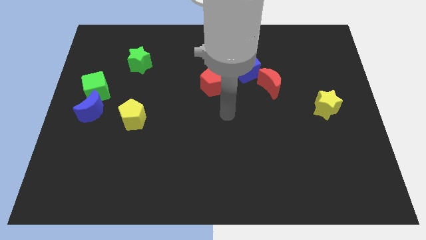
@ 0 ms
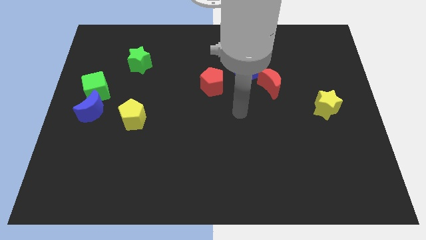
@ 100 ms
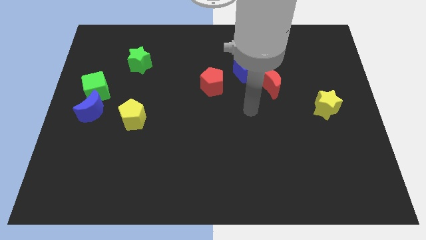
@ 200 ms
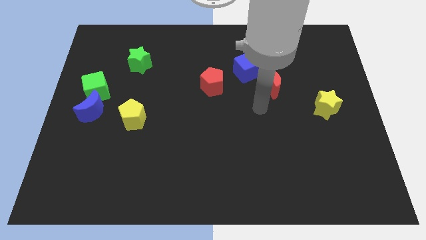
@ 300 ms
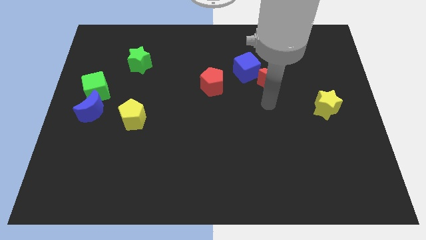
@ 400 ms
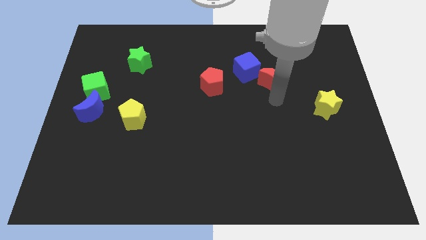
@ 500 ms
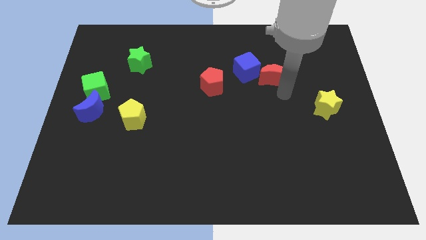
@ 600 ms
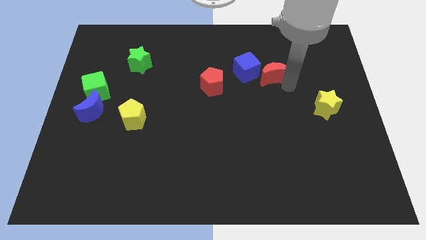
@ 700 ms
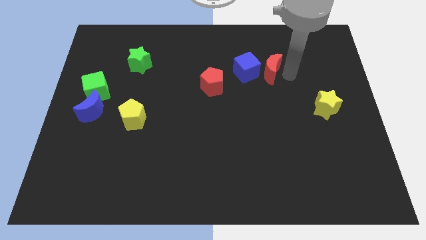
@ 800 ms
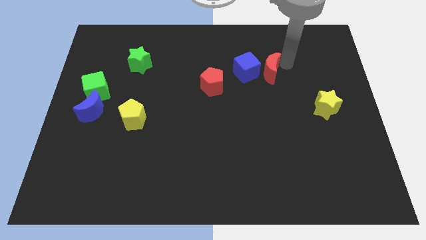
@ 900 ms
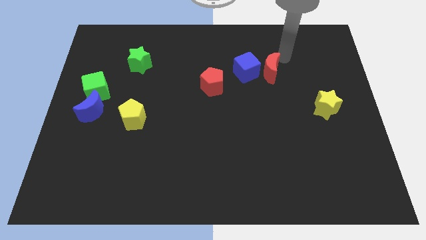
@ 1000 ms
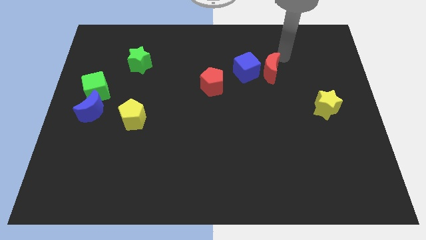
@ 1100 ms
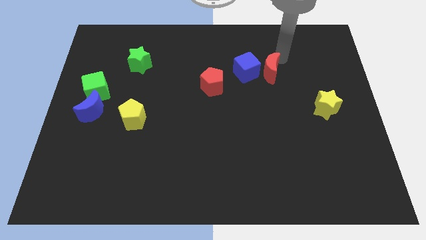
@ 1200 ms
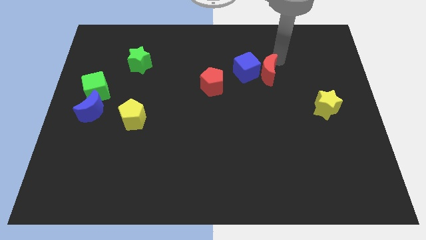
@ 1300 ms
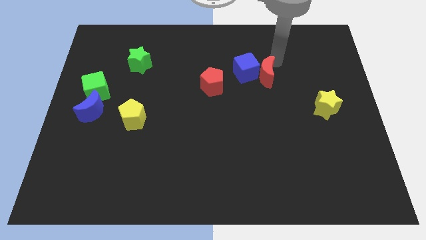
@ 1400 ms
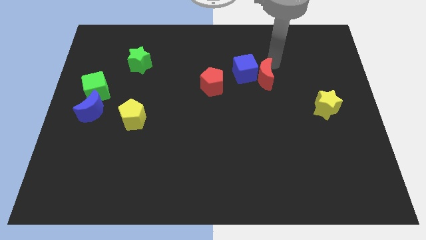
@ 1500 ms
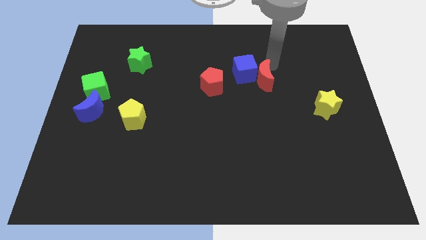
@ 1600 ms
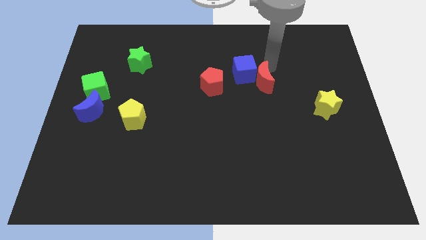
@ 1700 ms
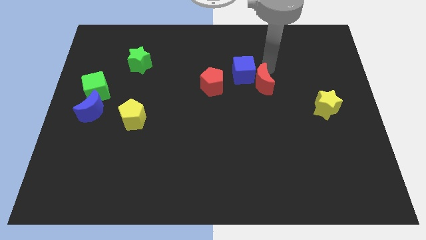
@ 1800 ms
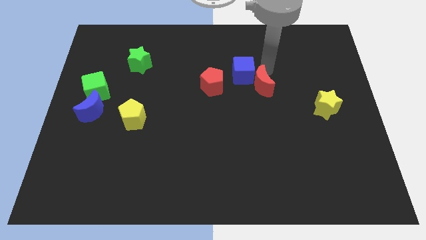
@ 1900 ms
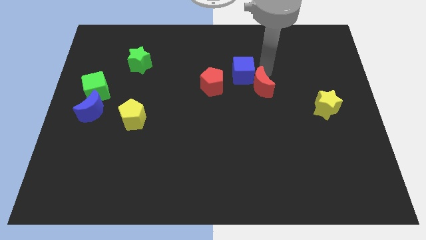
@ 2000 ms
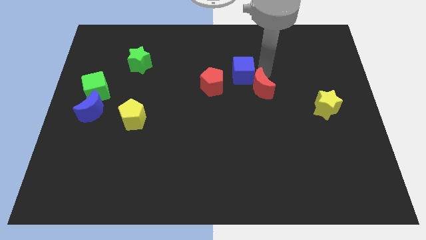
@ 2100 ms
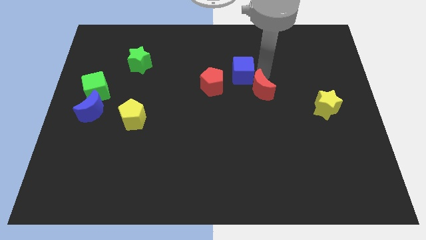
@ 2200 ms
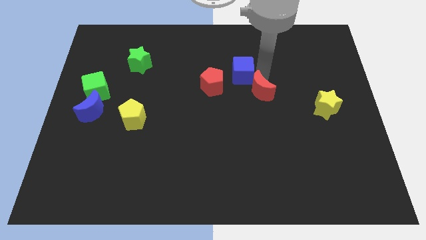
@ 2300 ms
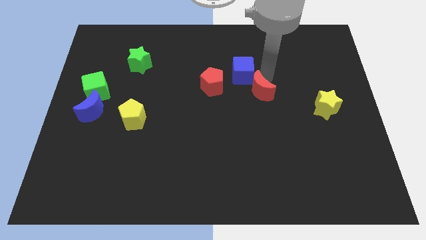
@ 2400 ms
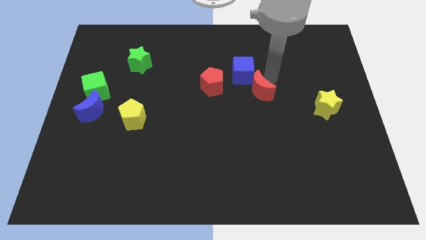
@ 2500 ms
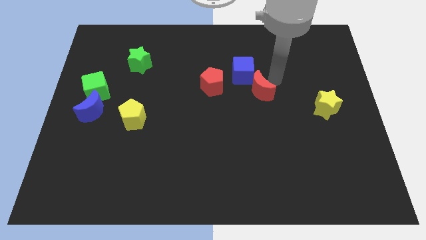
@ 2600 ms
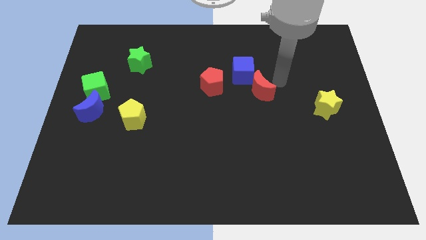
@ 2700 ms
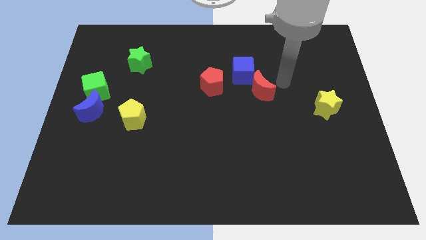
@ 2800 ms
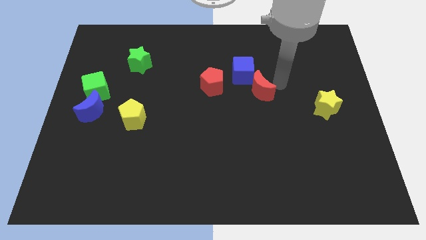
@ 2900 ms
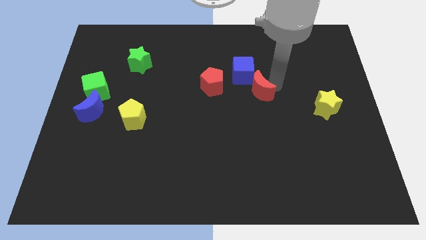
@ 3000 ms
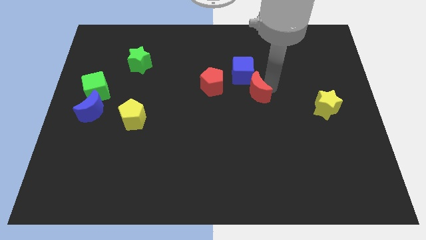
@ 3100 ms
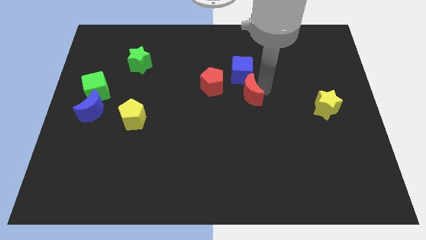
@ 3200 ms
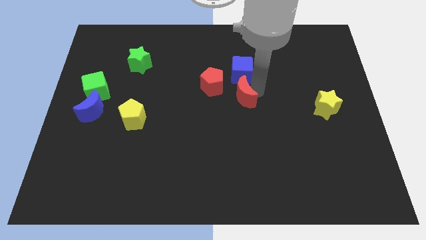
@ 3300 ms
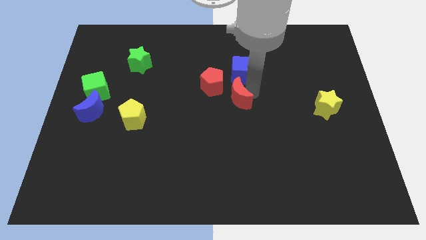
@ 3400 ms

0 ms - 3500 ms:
push the red moon a little bit to the left

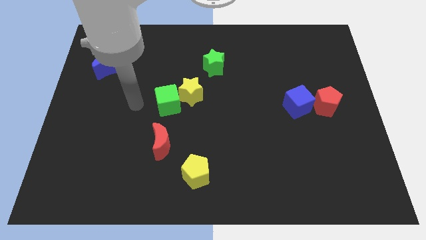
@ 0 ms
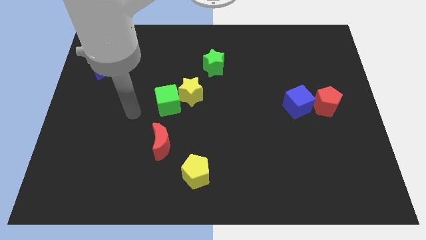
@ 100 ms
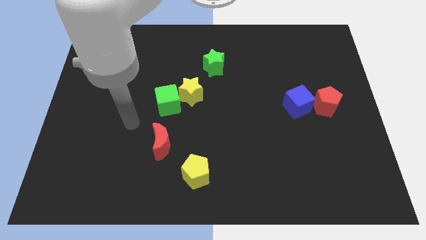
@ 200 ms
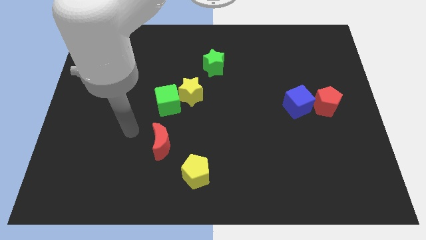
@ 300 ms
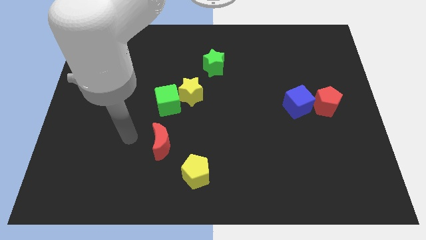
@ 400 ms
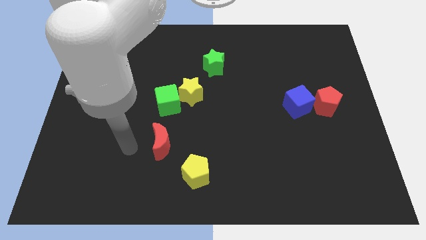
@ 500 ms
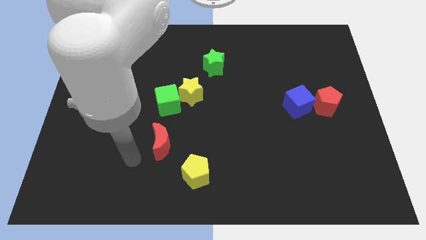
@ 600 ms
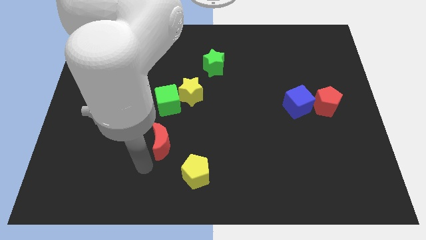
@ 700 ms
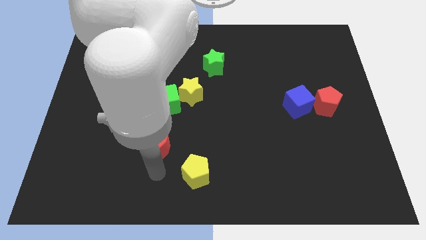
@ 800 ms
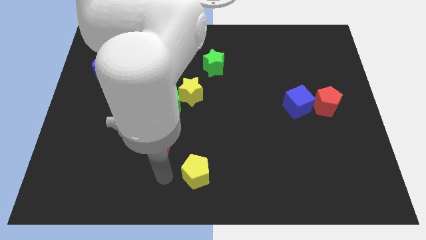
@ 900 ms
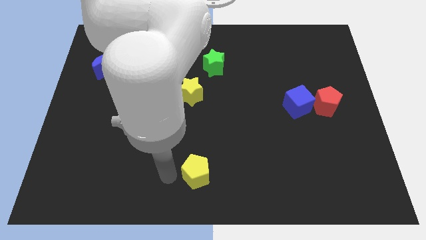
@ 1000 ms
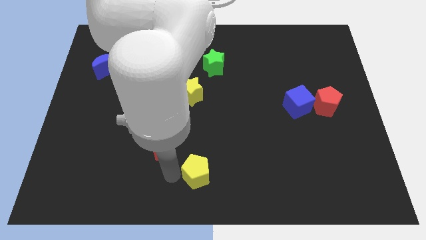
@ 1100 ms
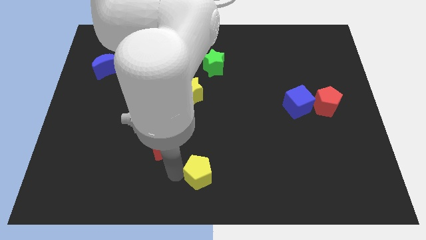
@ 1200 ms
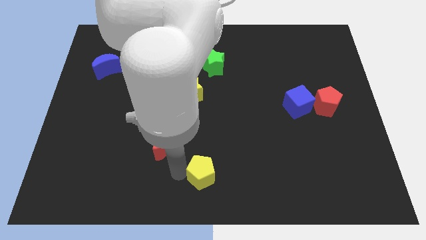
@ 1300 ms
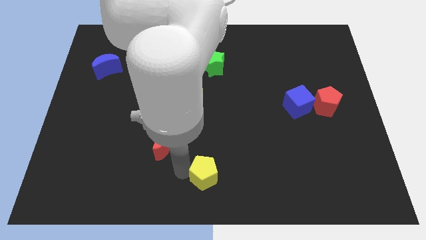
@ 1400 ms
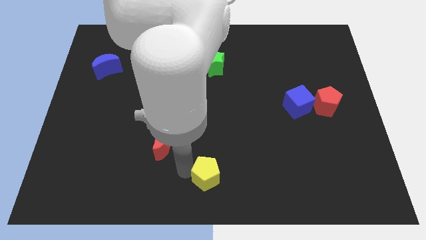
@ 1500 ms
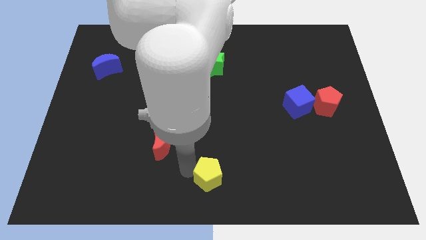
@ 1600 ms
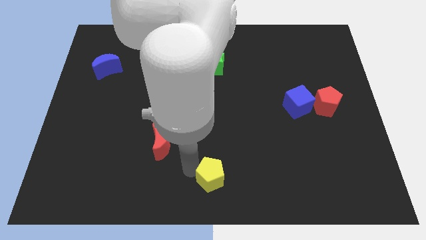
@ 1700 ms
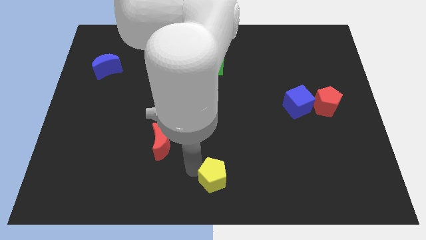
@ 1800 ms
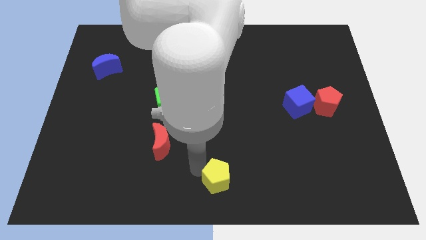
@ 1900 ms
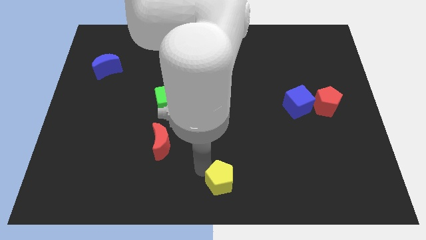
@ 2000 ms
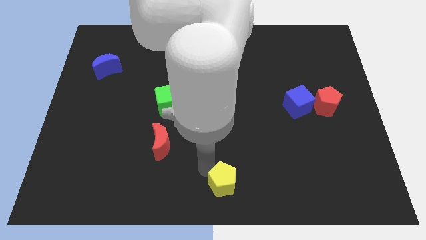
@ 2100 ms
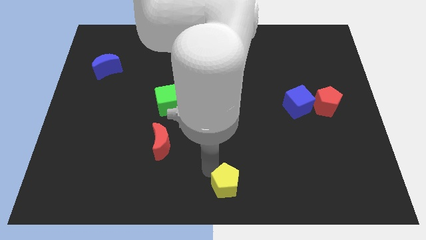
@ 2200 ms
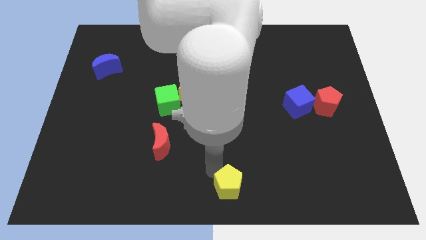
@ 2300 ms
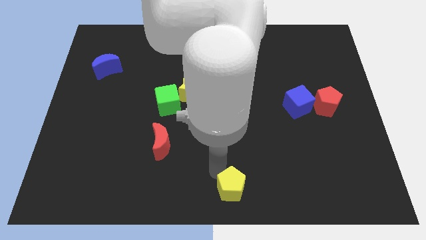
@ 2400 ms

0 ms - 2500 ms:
move the yellow pentagon somewhat to the right

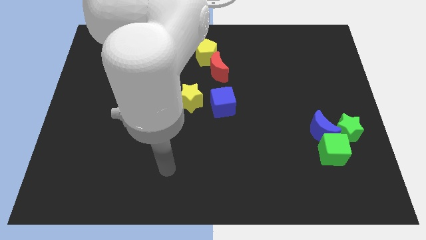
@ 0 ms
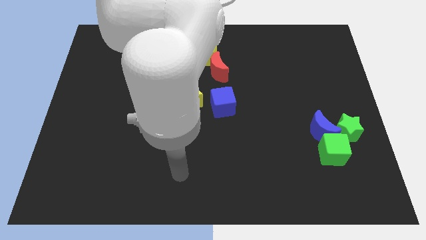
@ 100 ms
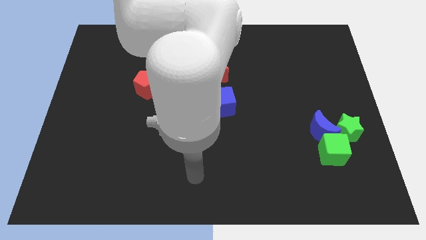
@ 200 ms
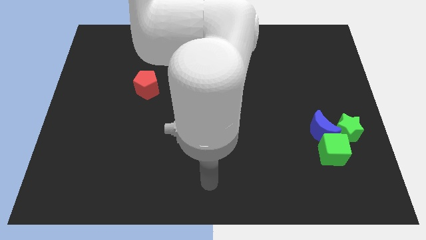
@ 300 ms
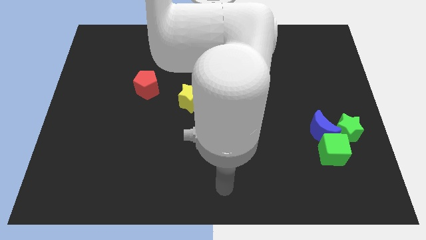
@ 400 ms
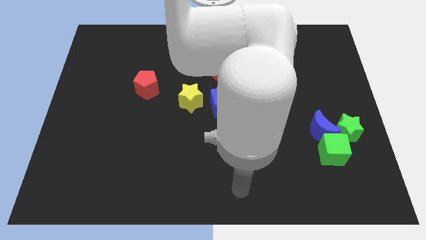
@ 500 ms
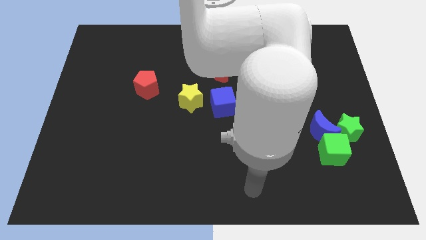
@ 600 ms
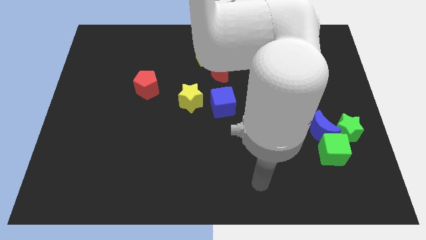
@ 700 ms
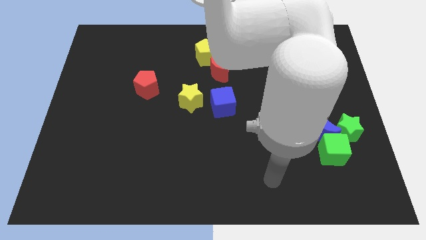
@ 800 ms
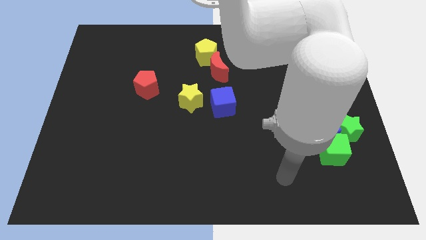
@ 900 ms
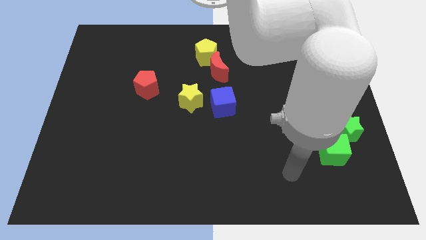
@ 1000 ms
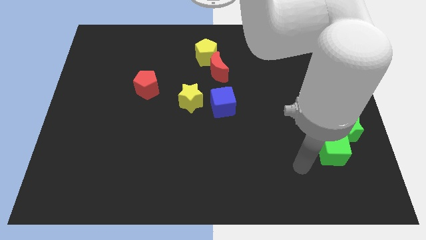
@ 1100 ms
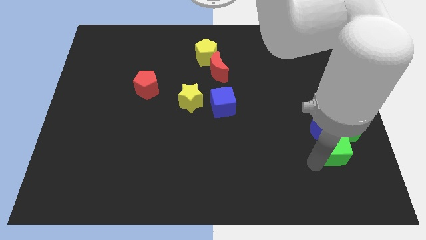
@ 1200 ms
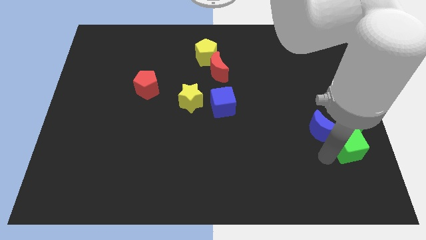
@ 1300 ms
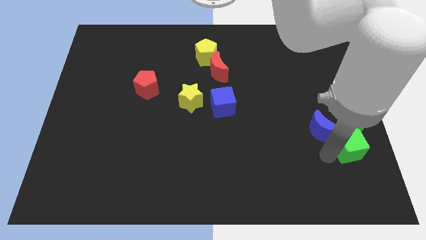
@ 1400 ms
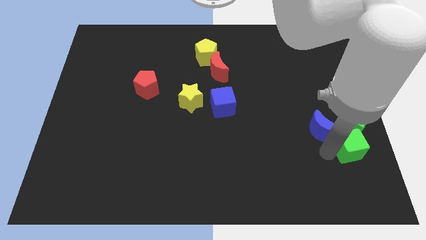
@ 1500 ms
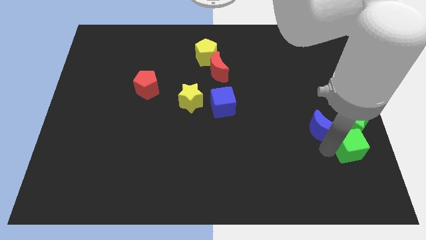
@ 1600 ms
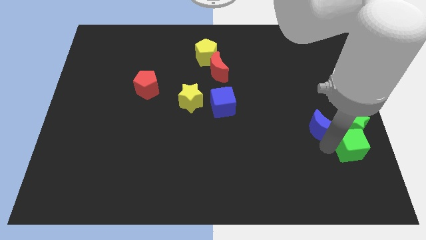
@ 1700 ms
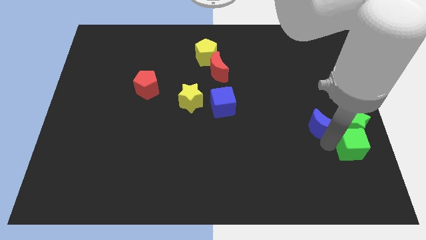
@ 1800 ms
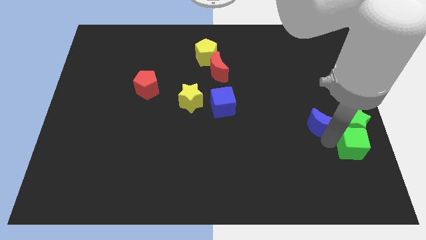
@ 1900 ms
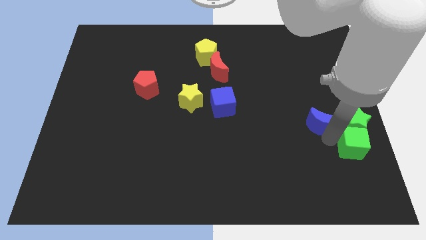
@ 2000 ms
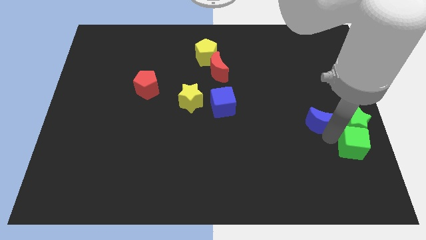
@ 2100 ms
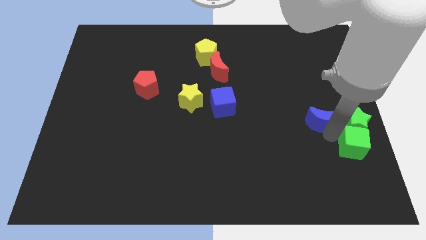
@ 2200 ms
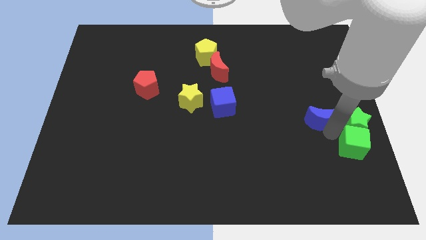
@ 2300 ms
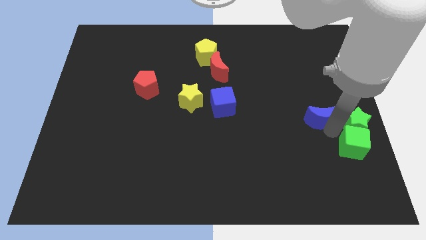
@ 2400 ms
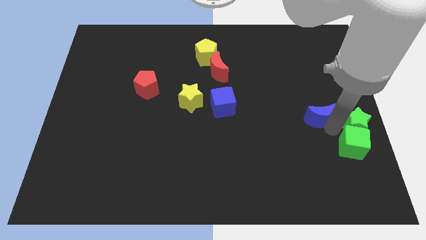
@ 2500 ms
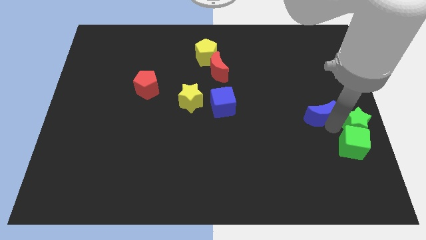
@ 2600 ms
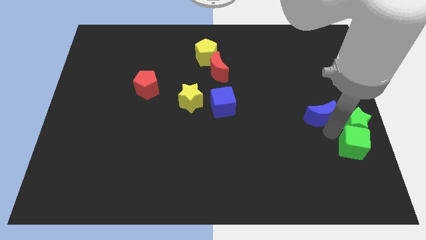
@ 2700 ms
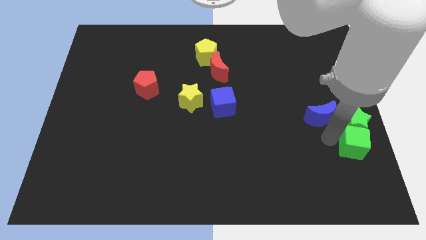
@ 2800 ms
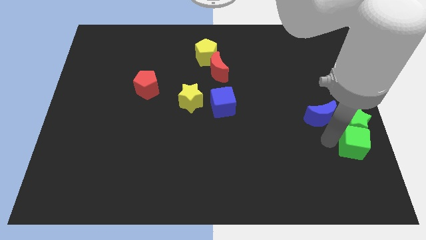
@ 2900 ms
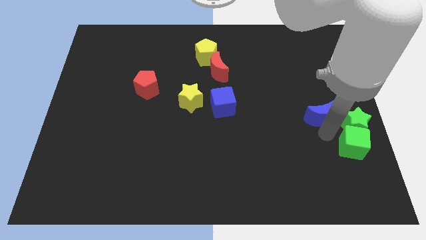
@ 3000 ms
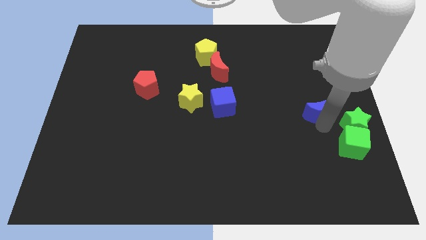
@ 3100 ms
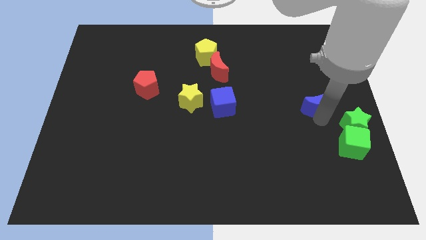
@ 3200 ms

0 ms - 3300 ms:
slightly push the blue moon upwards
